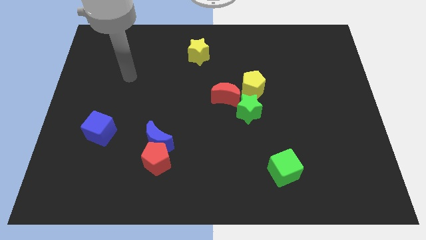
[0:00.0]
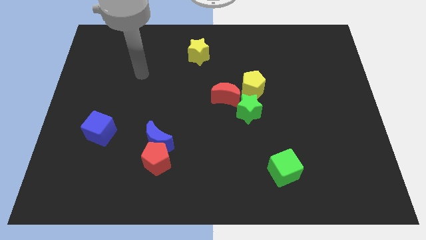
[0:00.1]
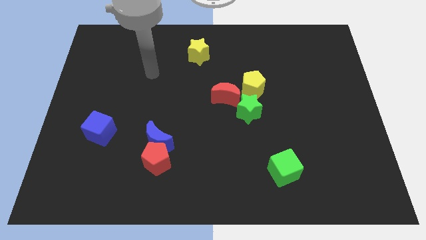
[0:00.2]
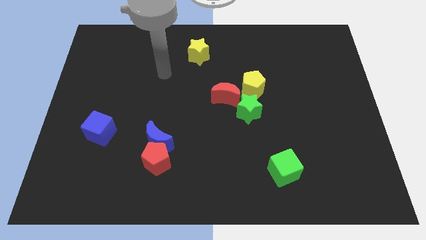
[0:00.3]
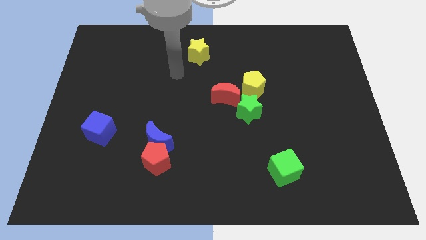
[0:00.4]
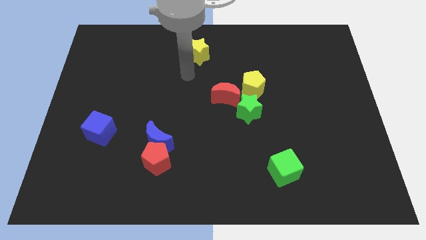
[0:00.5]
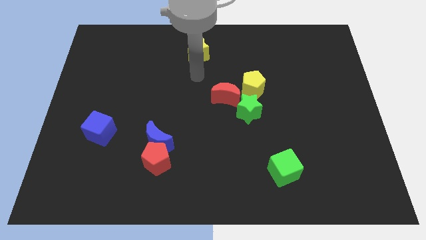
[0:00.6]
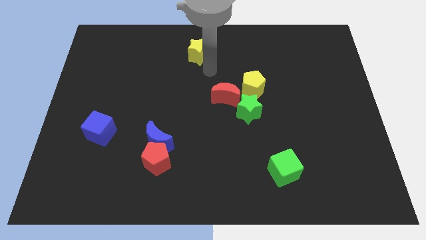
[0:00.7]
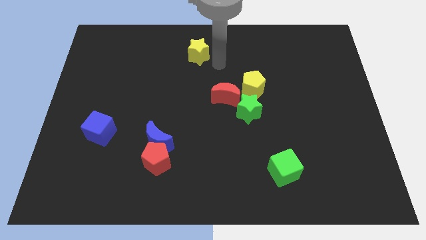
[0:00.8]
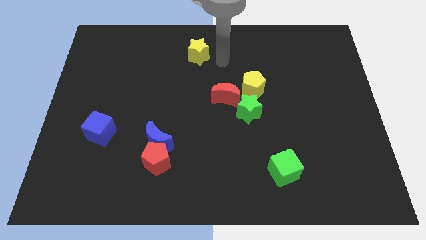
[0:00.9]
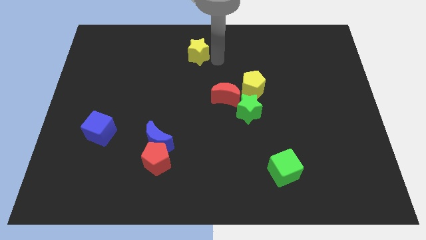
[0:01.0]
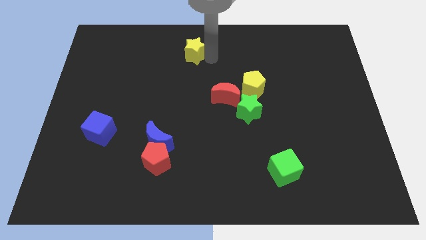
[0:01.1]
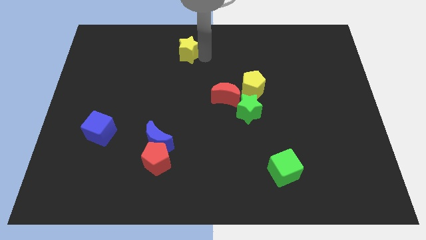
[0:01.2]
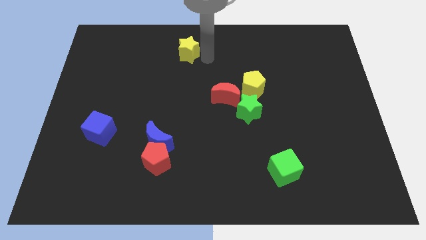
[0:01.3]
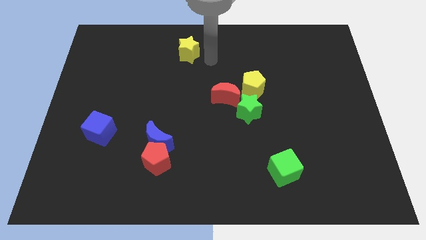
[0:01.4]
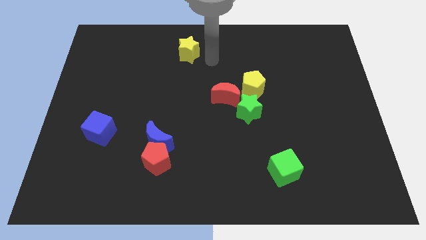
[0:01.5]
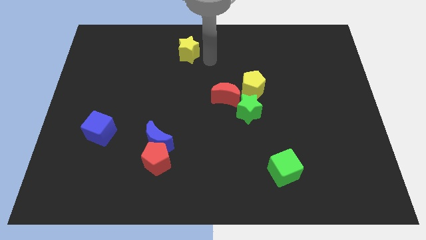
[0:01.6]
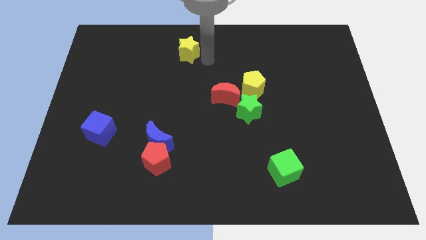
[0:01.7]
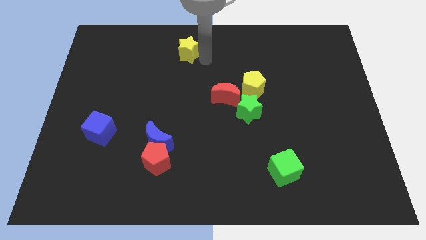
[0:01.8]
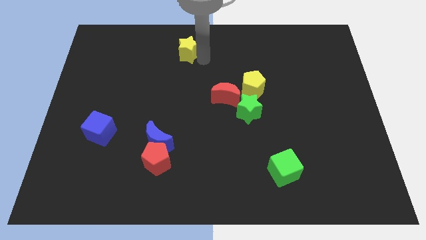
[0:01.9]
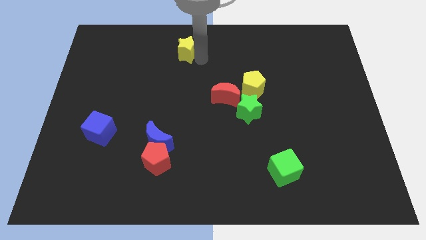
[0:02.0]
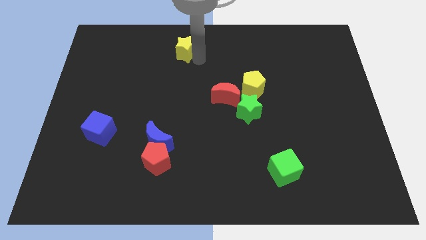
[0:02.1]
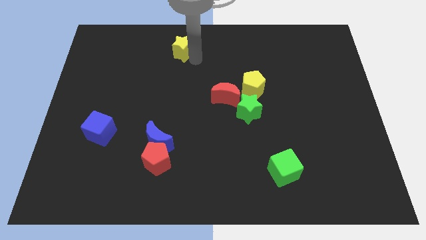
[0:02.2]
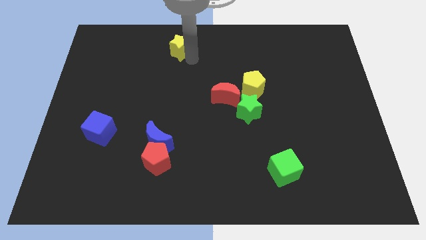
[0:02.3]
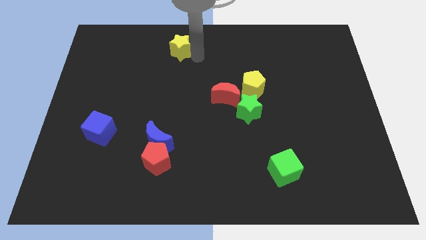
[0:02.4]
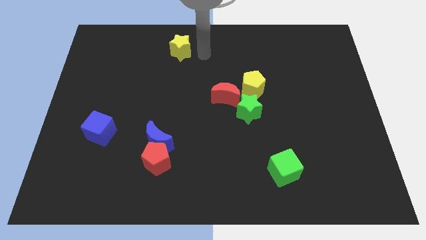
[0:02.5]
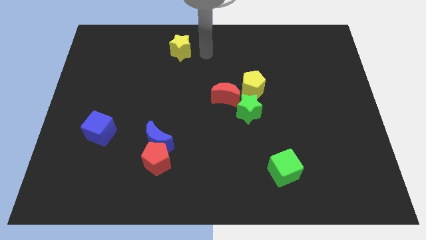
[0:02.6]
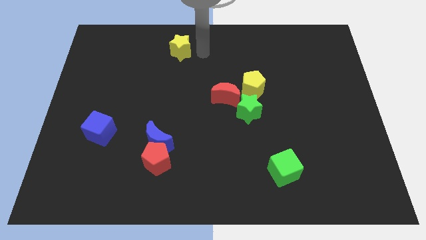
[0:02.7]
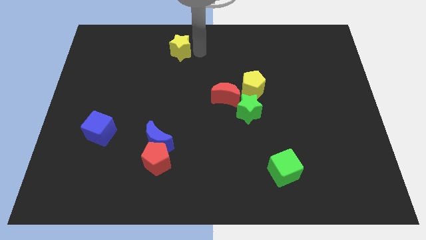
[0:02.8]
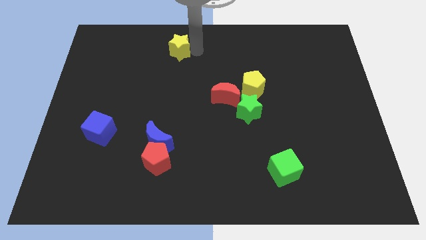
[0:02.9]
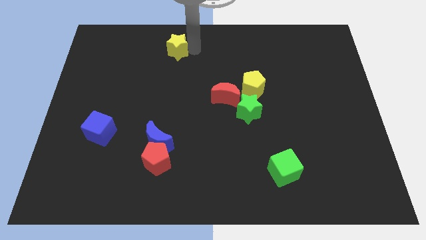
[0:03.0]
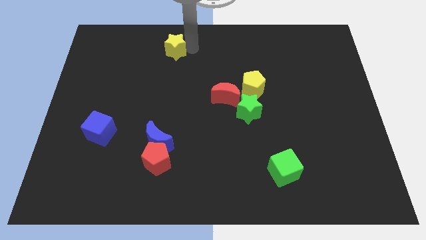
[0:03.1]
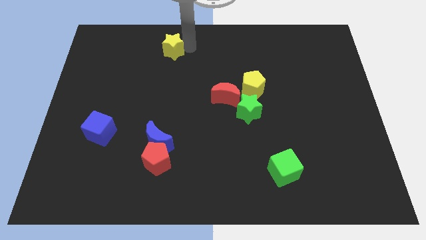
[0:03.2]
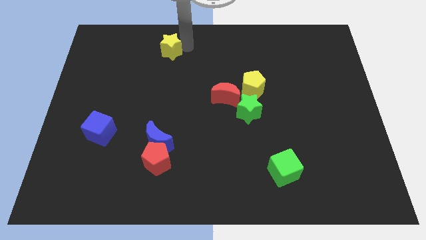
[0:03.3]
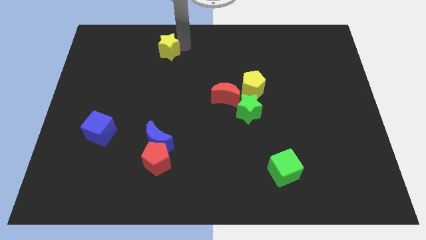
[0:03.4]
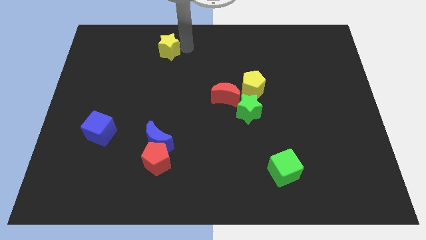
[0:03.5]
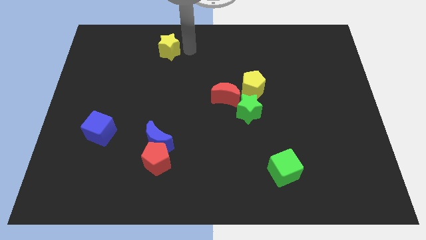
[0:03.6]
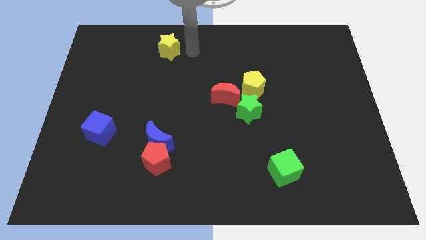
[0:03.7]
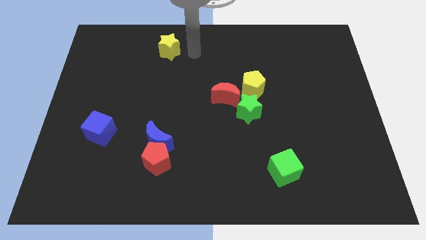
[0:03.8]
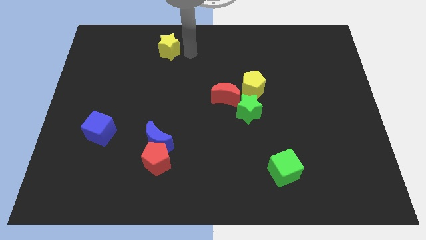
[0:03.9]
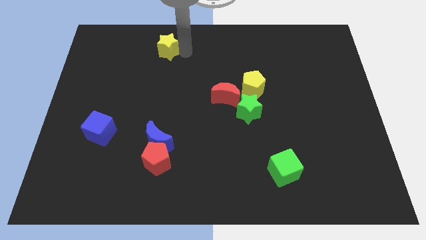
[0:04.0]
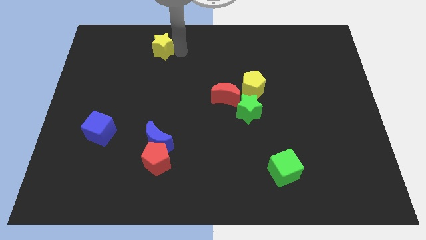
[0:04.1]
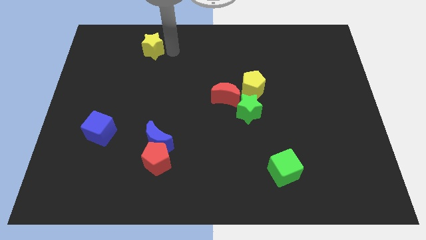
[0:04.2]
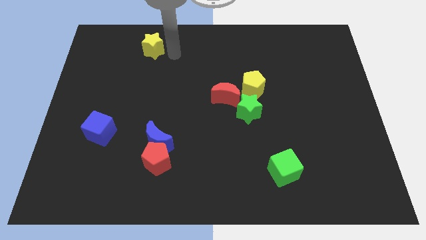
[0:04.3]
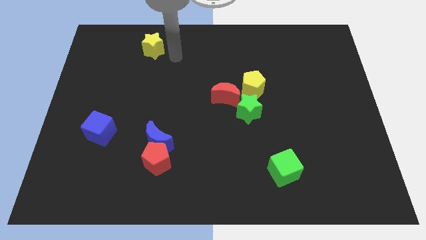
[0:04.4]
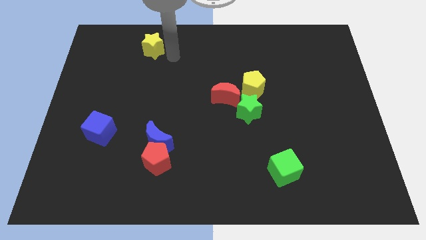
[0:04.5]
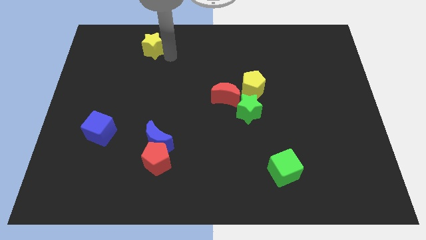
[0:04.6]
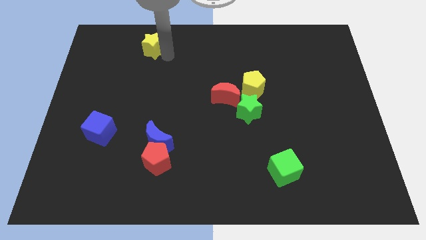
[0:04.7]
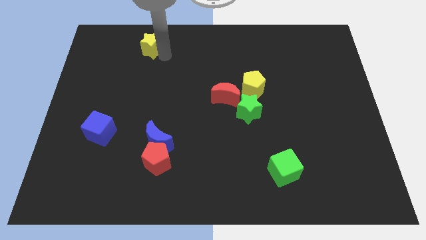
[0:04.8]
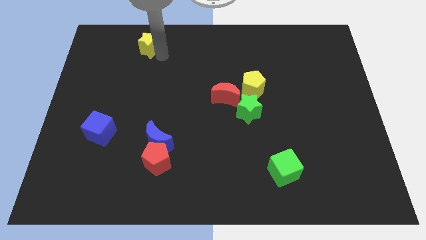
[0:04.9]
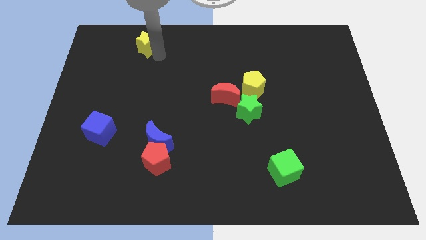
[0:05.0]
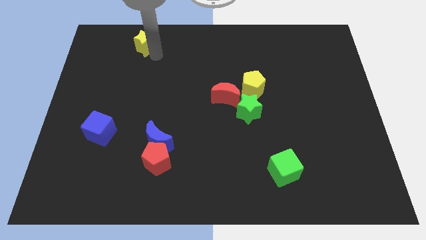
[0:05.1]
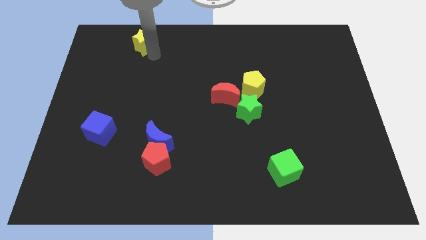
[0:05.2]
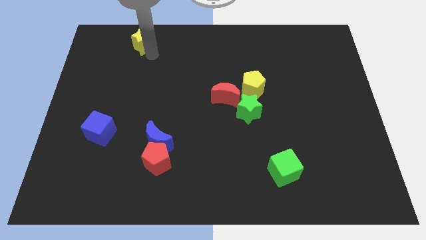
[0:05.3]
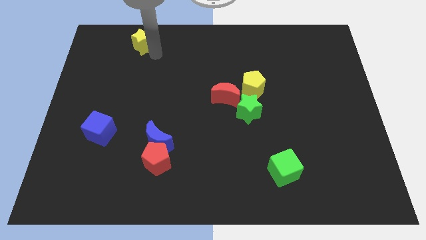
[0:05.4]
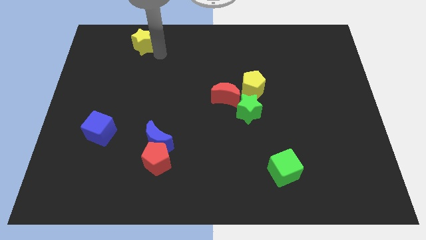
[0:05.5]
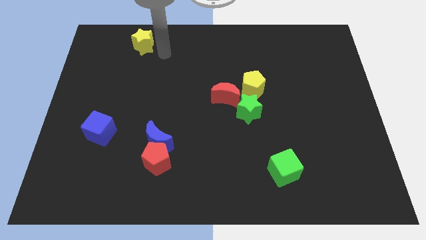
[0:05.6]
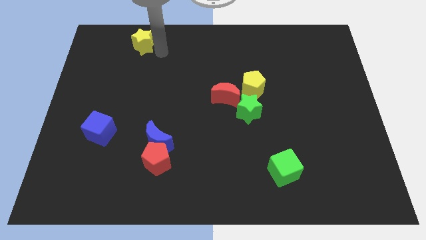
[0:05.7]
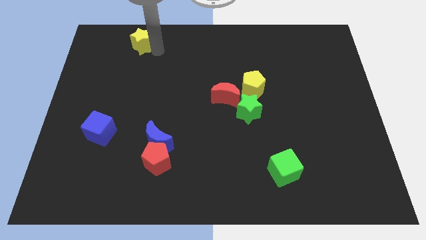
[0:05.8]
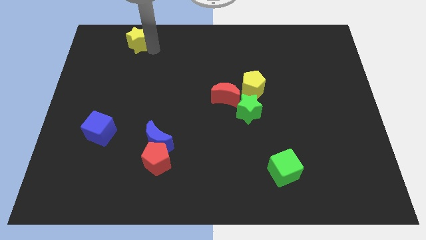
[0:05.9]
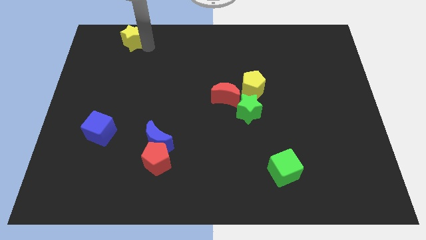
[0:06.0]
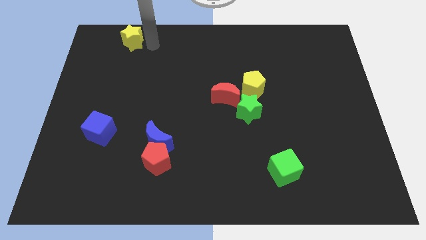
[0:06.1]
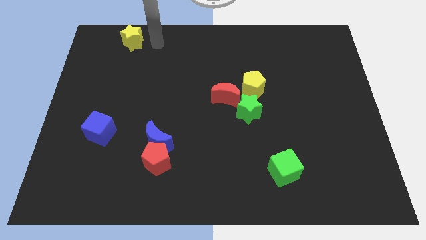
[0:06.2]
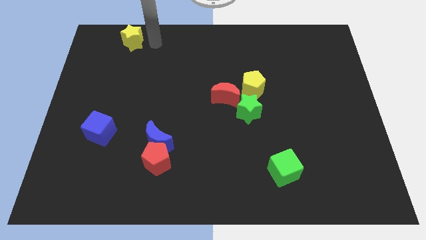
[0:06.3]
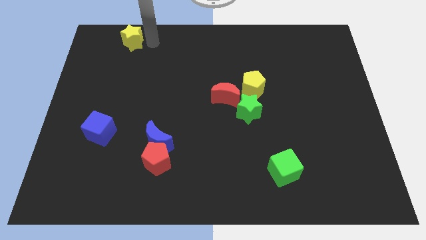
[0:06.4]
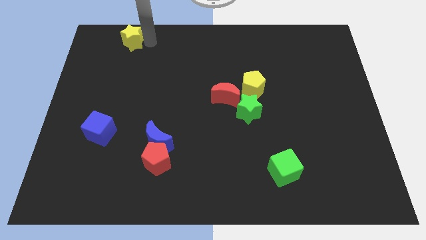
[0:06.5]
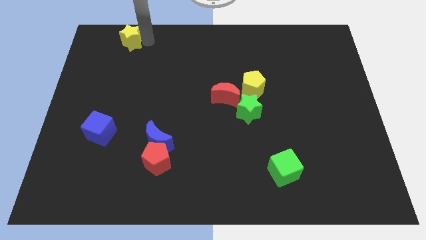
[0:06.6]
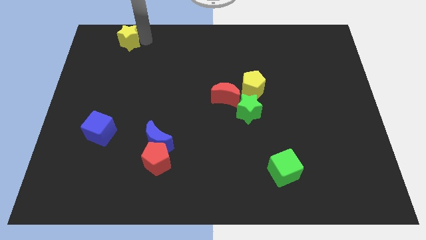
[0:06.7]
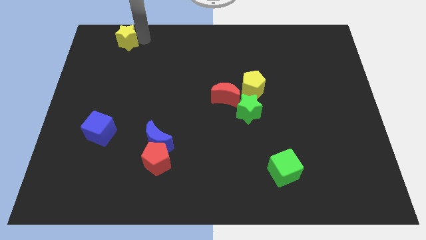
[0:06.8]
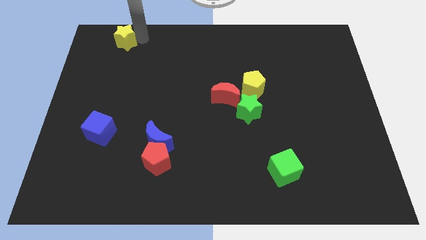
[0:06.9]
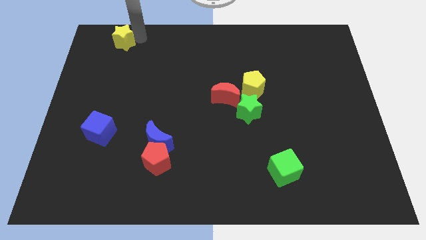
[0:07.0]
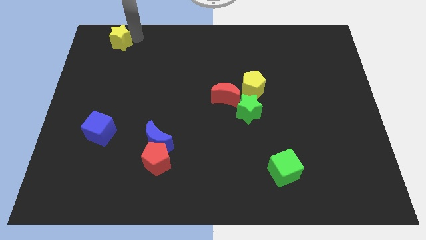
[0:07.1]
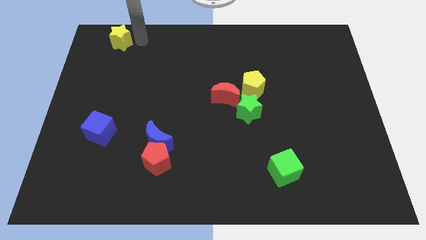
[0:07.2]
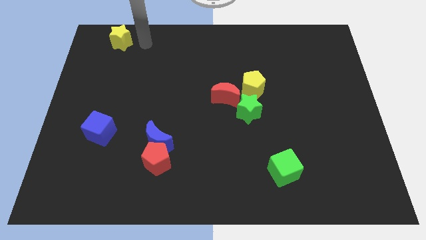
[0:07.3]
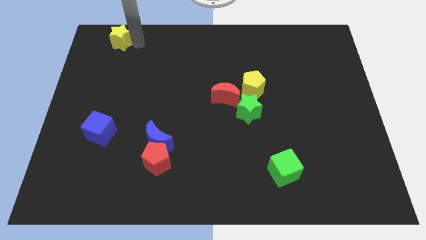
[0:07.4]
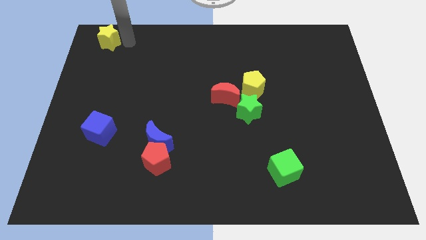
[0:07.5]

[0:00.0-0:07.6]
move the yellow star to the top left
